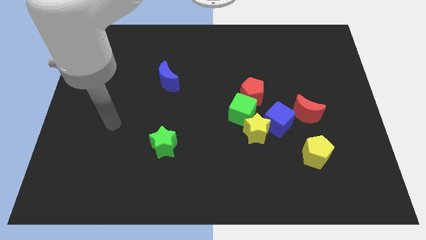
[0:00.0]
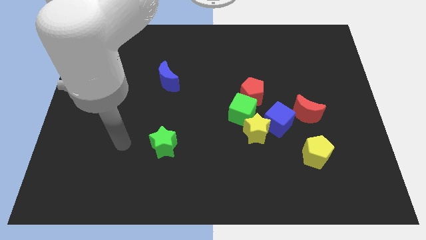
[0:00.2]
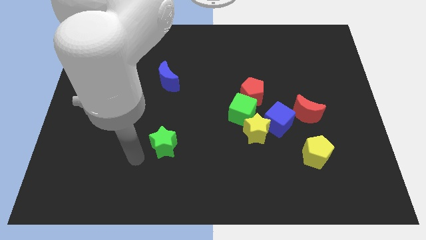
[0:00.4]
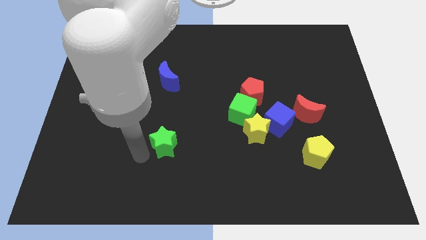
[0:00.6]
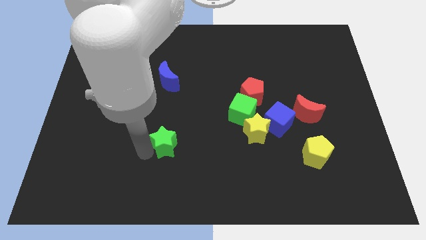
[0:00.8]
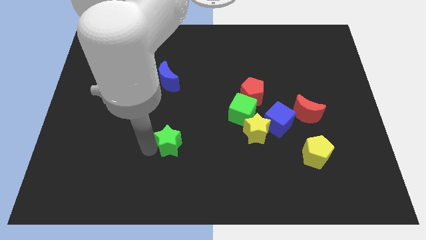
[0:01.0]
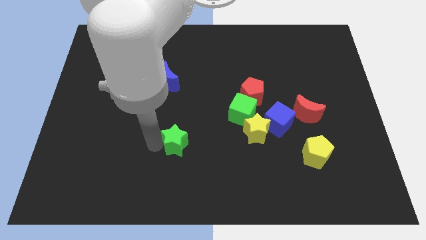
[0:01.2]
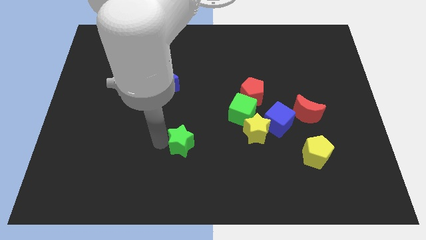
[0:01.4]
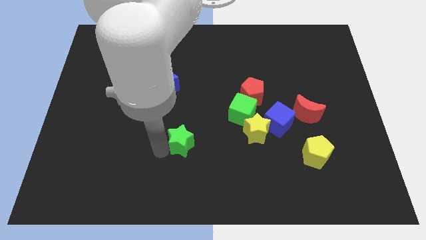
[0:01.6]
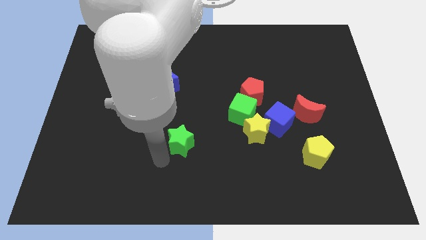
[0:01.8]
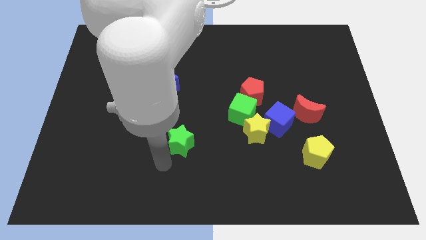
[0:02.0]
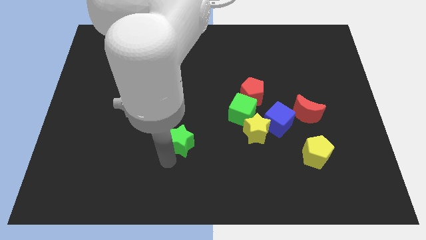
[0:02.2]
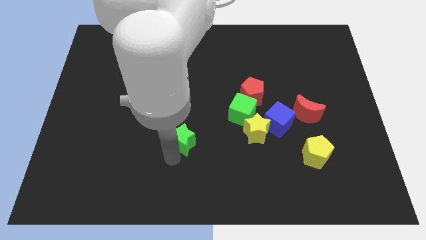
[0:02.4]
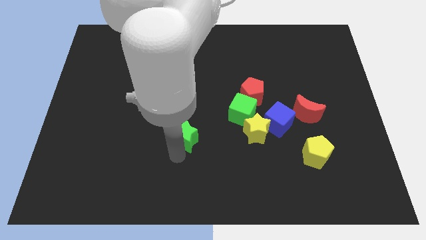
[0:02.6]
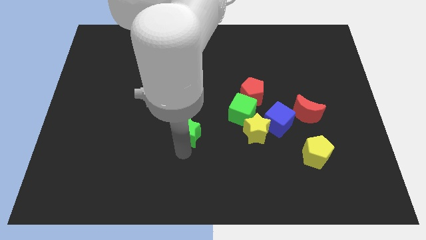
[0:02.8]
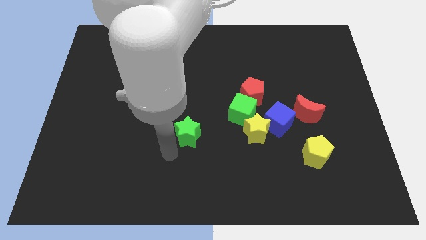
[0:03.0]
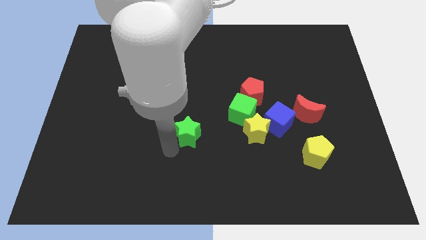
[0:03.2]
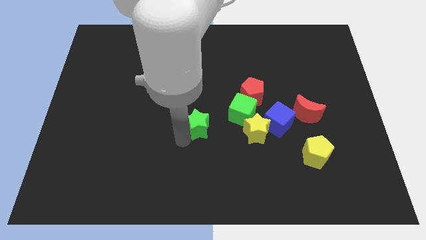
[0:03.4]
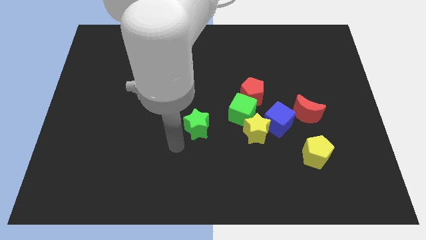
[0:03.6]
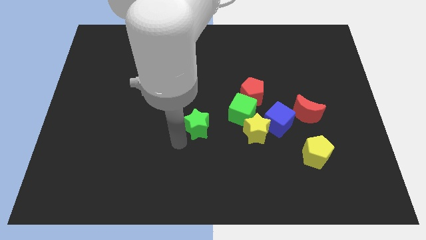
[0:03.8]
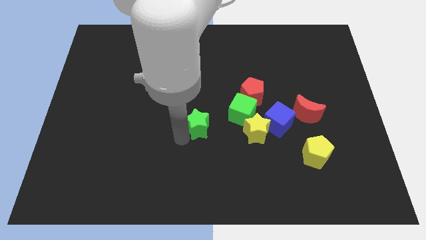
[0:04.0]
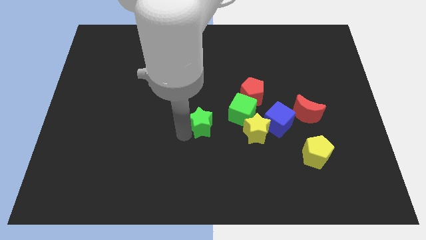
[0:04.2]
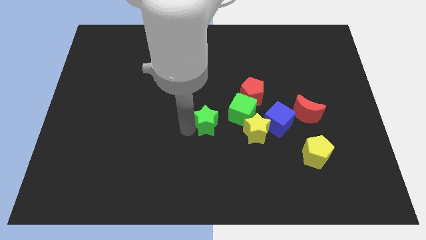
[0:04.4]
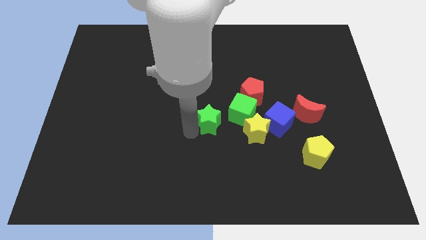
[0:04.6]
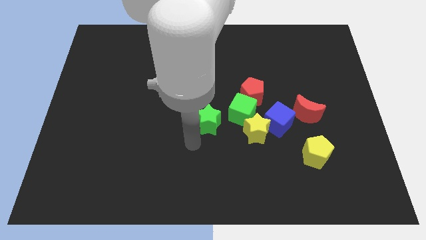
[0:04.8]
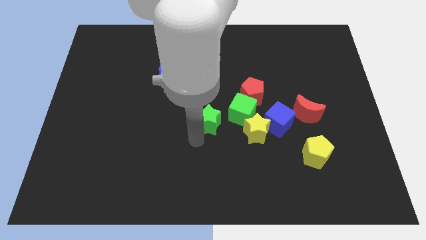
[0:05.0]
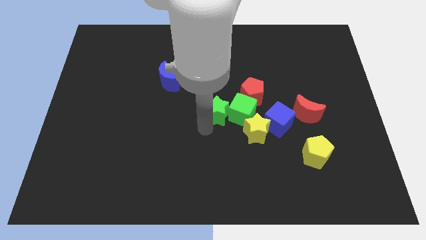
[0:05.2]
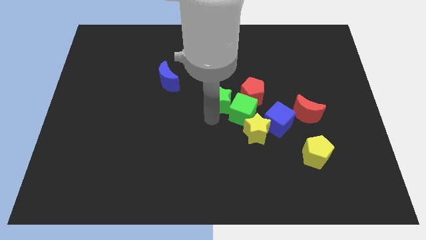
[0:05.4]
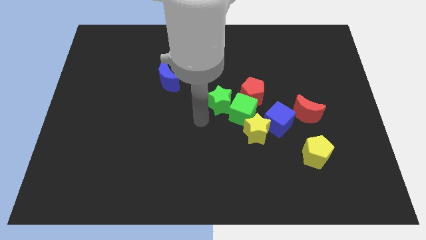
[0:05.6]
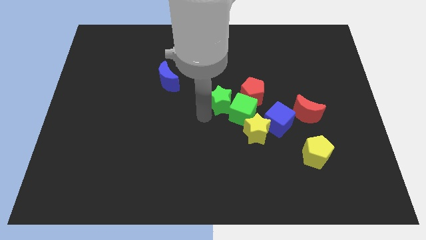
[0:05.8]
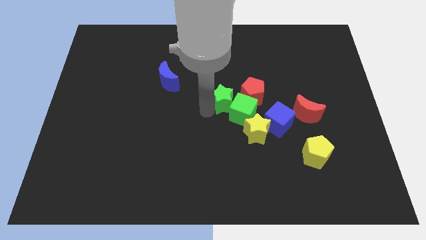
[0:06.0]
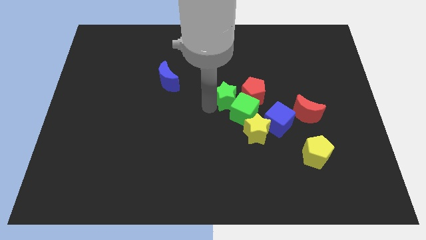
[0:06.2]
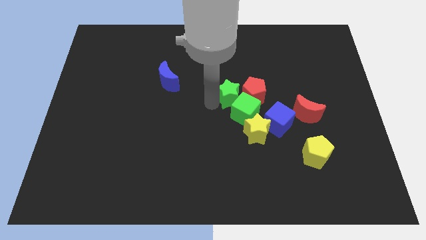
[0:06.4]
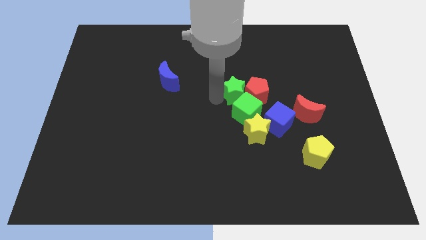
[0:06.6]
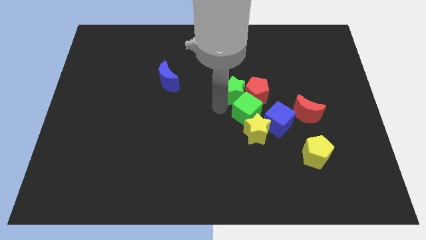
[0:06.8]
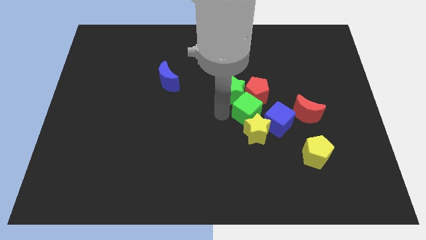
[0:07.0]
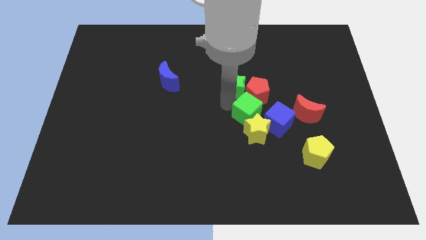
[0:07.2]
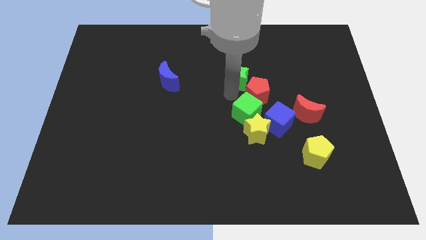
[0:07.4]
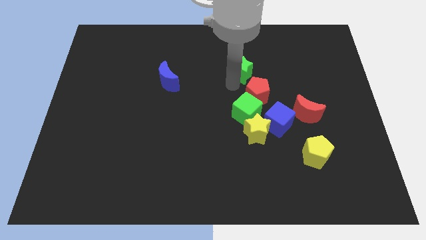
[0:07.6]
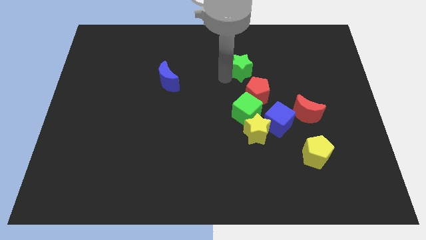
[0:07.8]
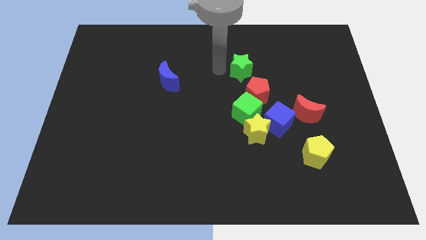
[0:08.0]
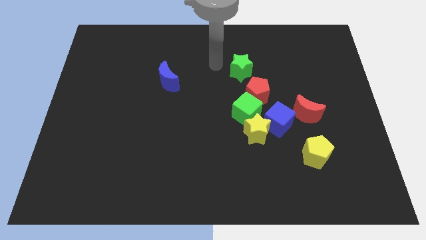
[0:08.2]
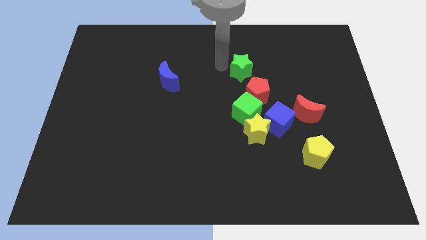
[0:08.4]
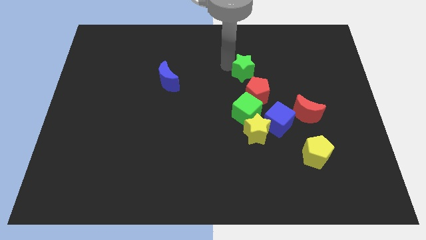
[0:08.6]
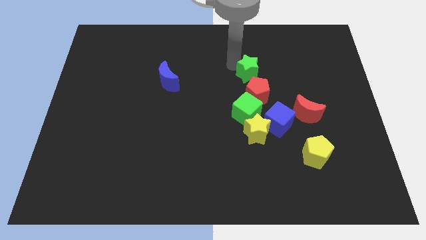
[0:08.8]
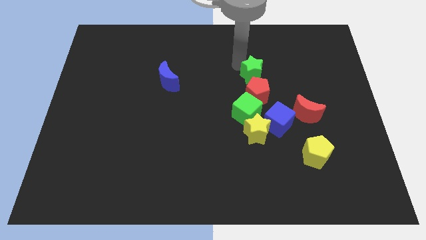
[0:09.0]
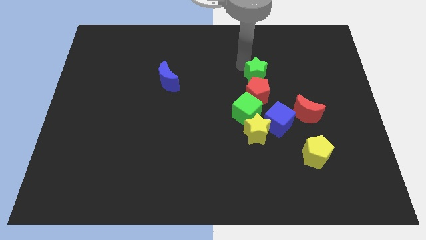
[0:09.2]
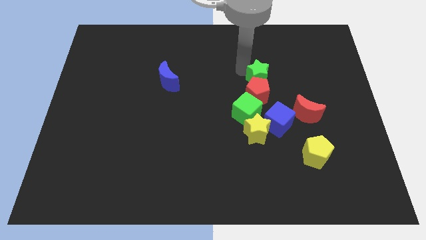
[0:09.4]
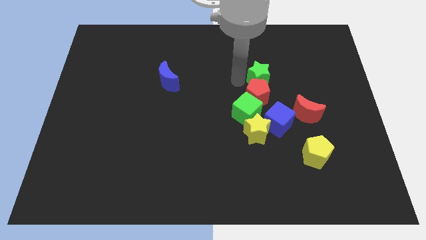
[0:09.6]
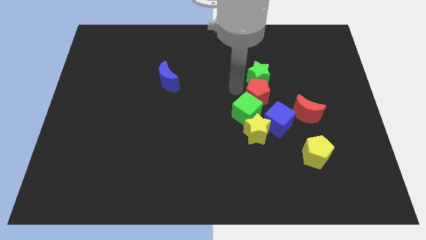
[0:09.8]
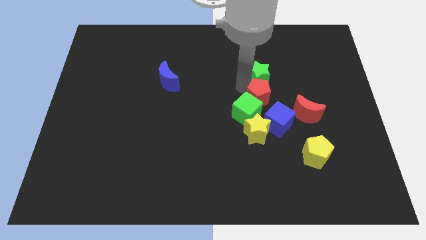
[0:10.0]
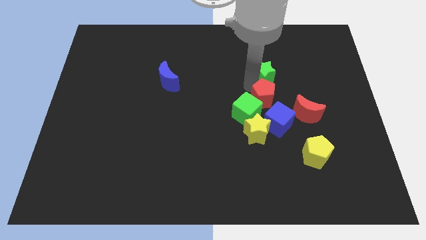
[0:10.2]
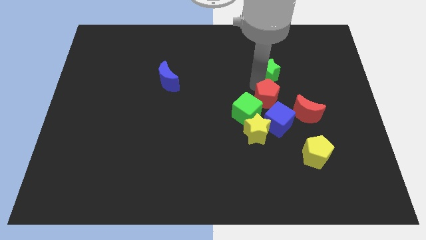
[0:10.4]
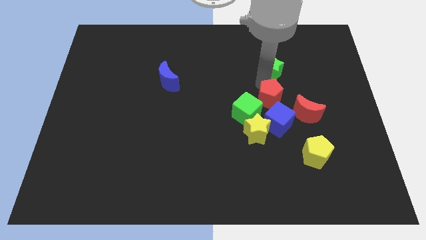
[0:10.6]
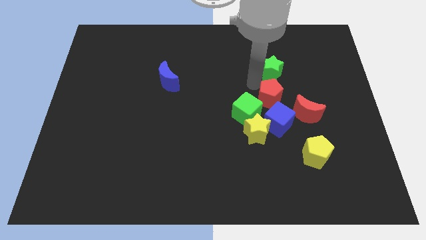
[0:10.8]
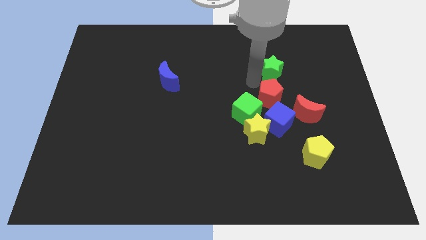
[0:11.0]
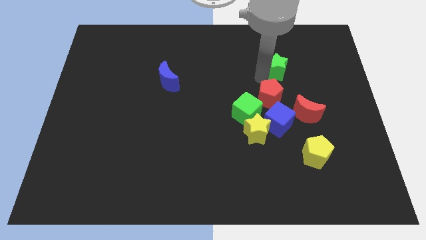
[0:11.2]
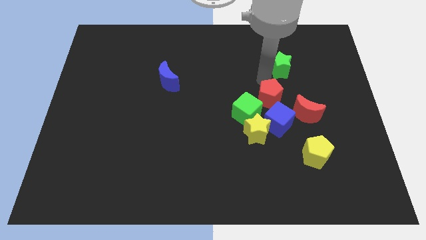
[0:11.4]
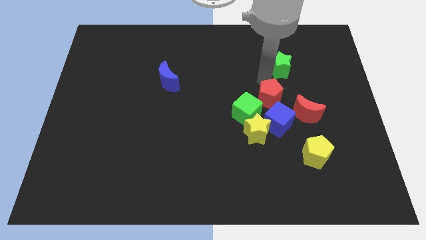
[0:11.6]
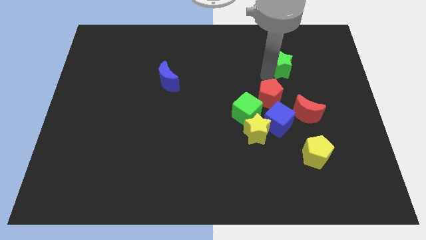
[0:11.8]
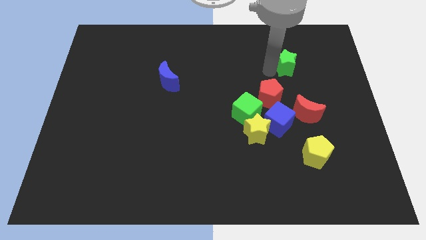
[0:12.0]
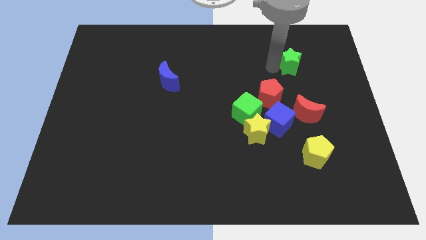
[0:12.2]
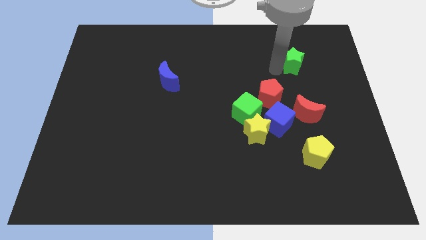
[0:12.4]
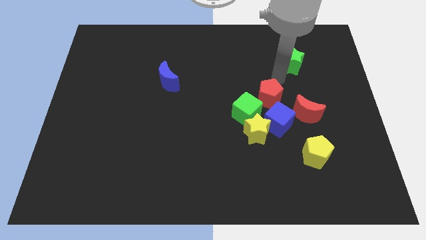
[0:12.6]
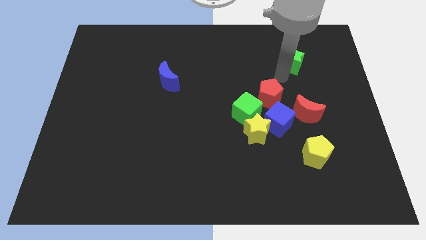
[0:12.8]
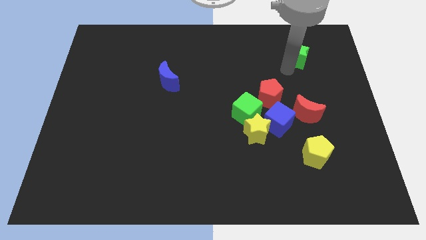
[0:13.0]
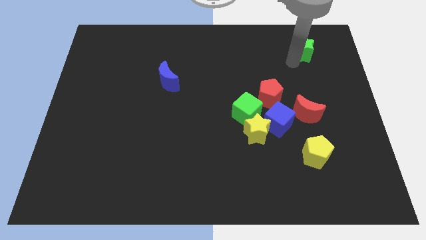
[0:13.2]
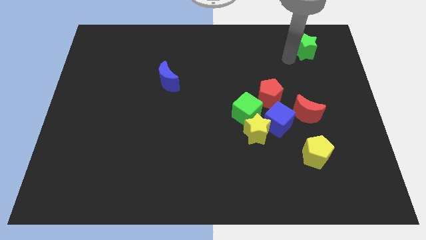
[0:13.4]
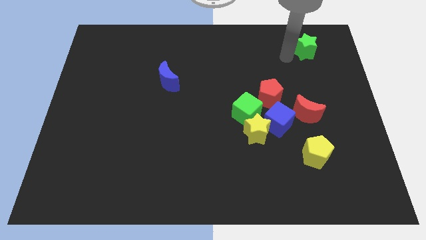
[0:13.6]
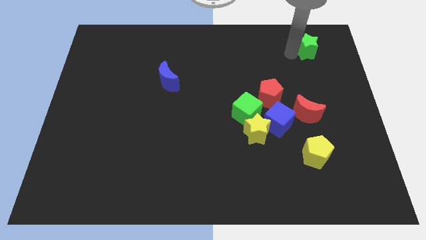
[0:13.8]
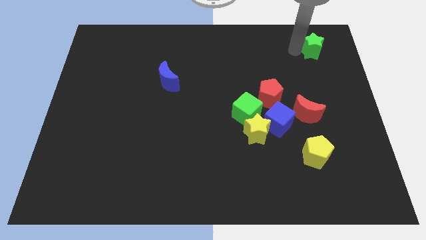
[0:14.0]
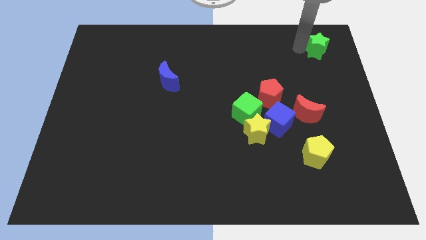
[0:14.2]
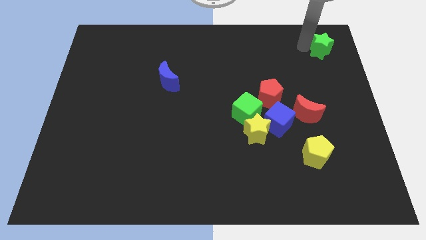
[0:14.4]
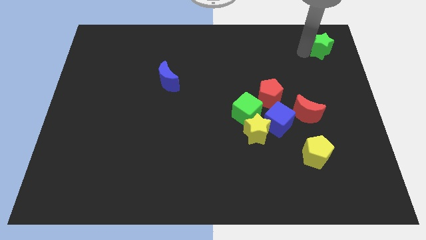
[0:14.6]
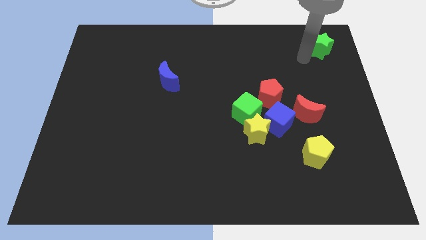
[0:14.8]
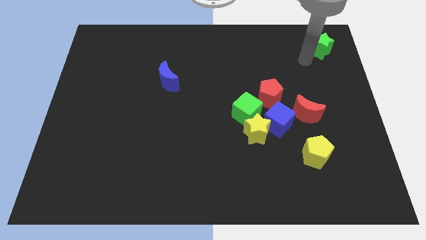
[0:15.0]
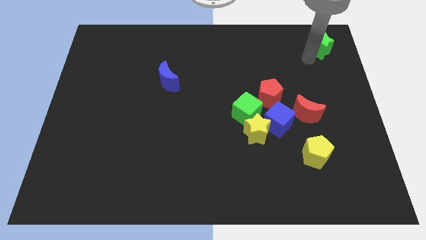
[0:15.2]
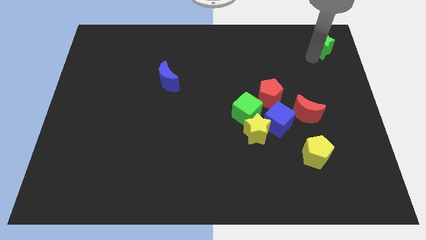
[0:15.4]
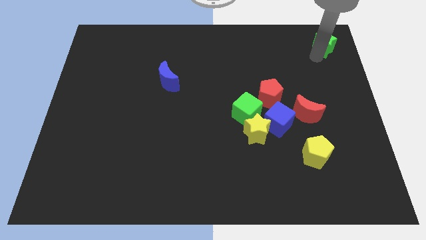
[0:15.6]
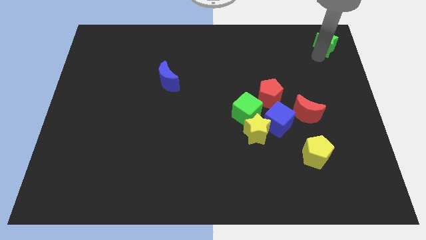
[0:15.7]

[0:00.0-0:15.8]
move the green star to the top right corner
